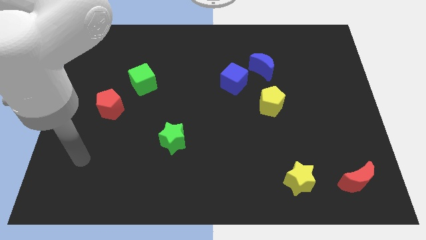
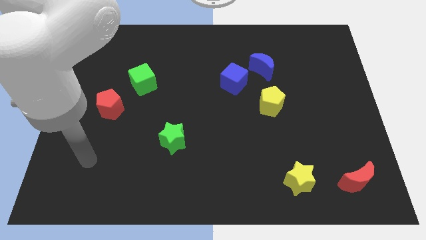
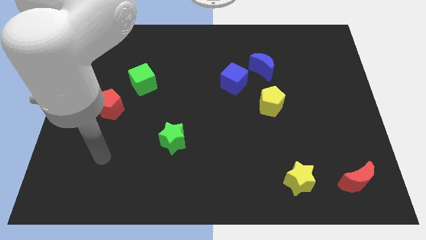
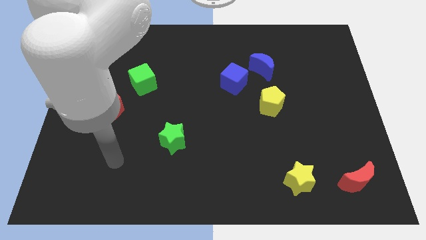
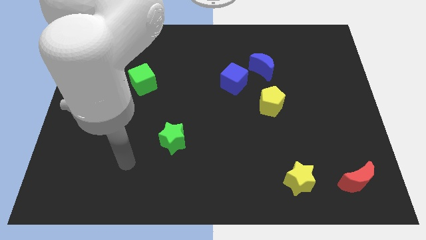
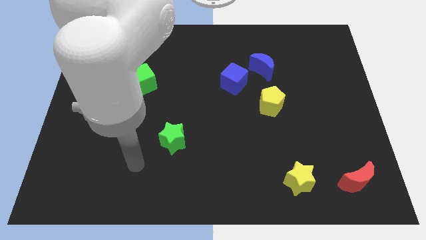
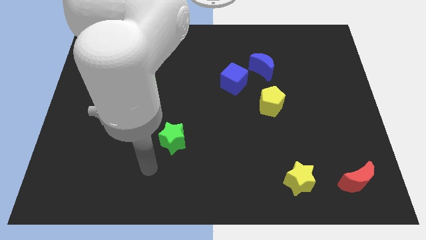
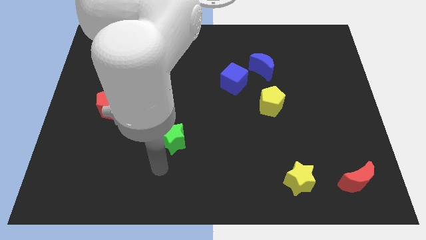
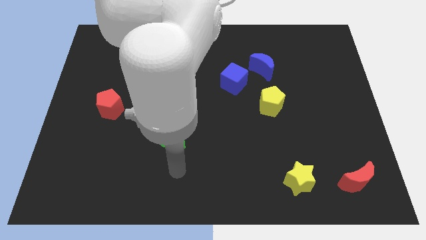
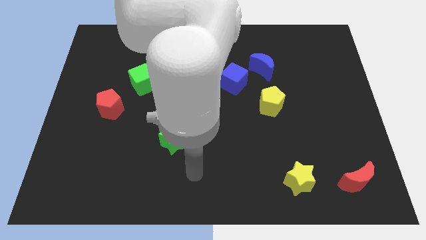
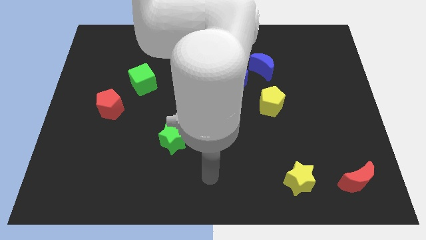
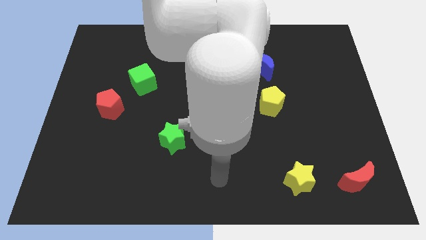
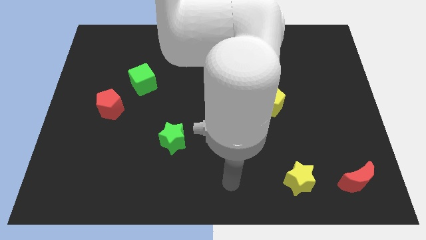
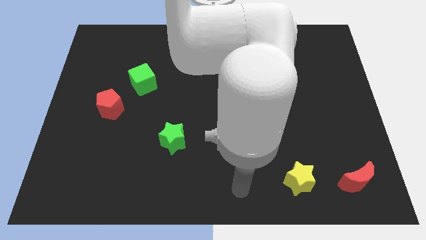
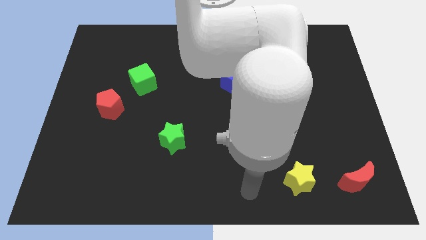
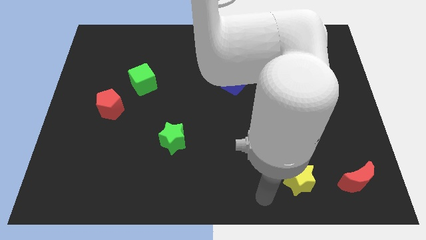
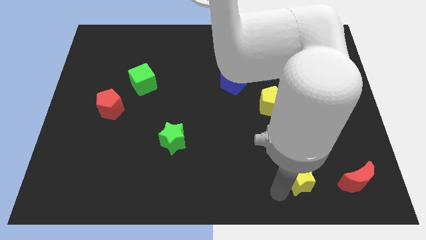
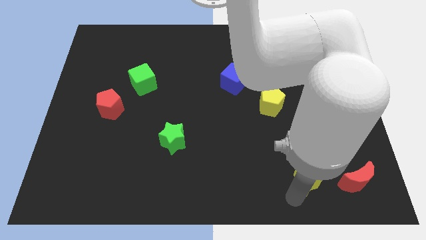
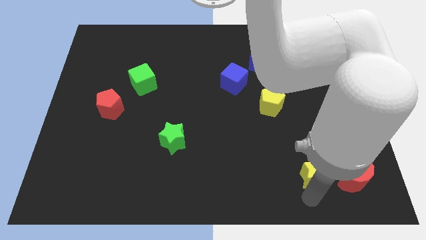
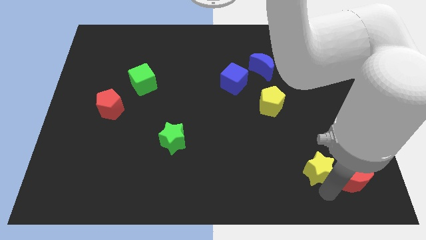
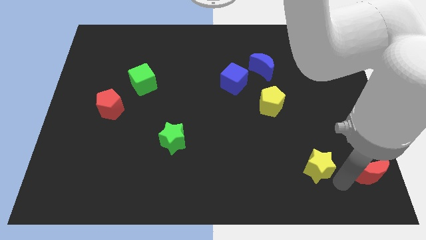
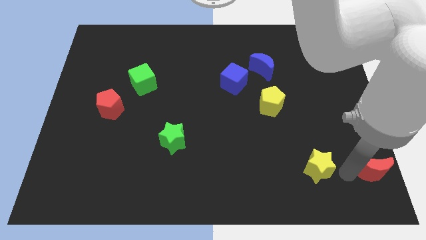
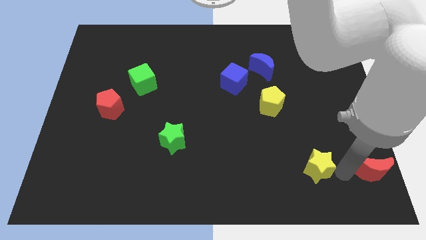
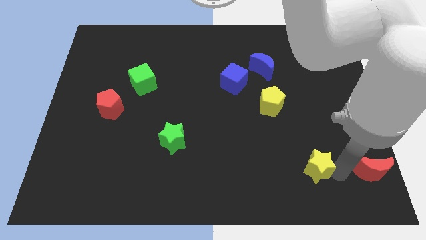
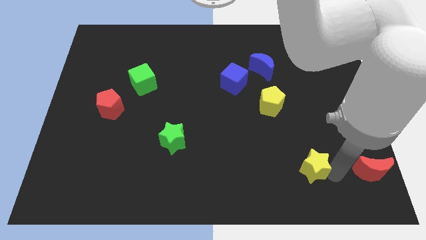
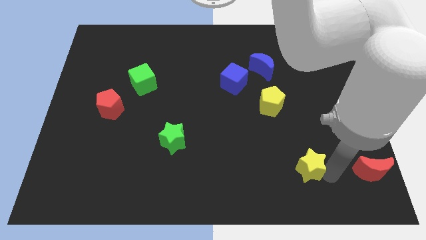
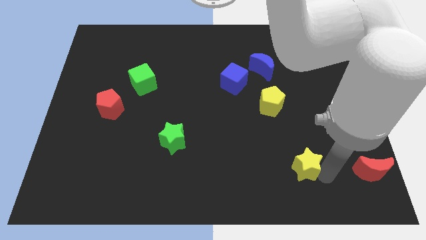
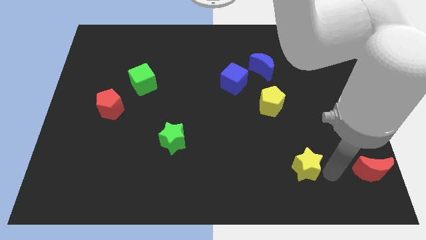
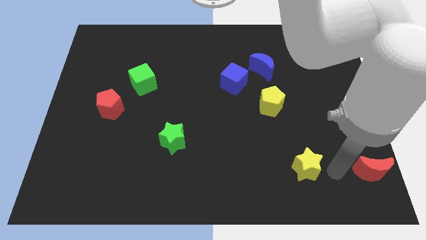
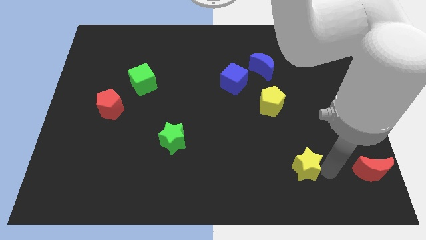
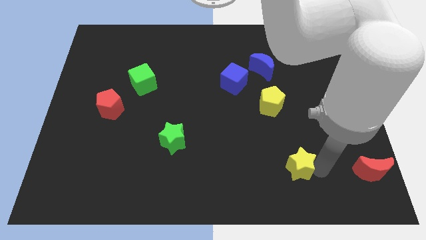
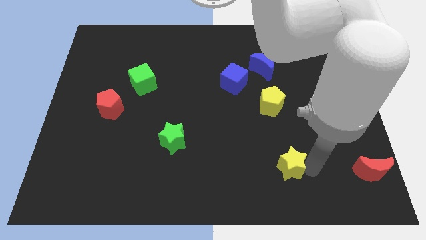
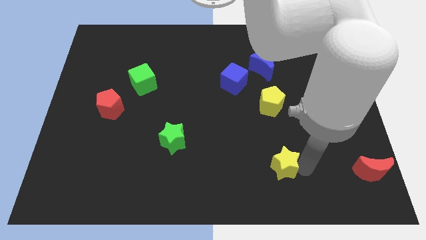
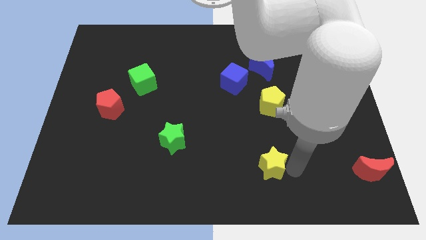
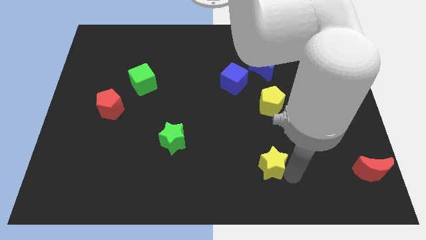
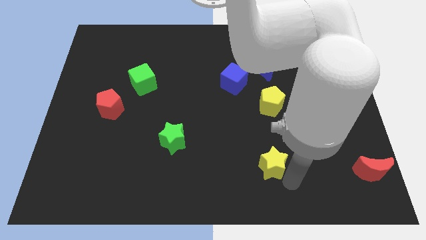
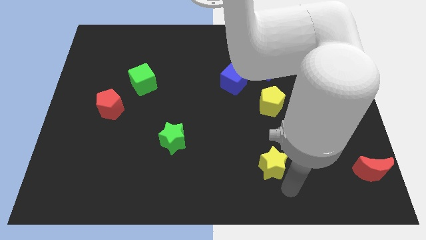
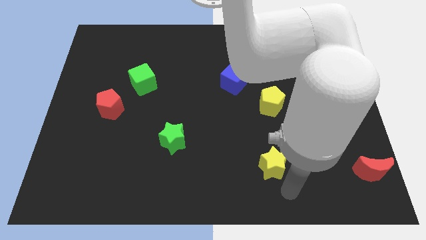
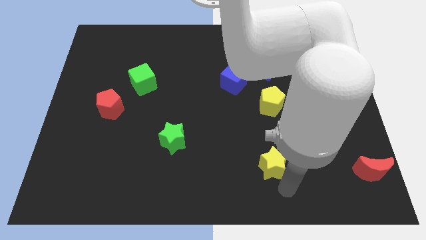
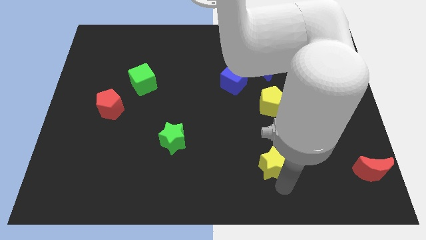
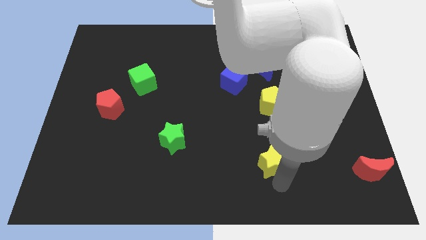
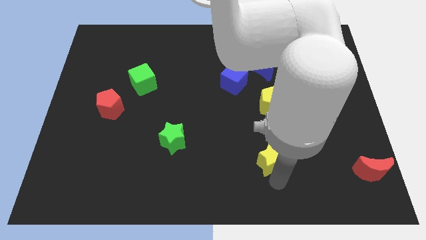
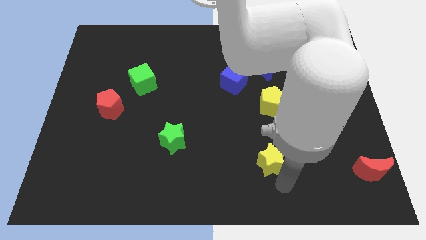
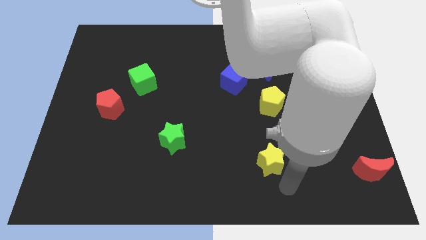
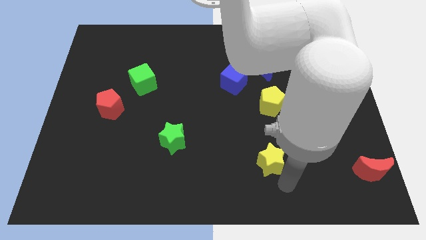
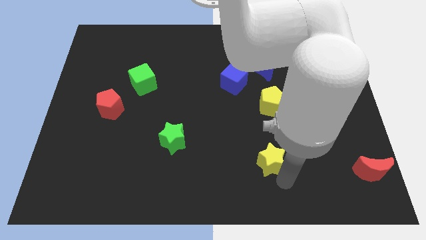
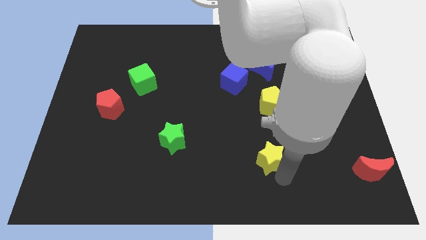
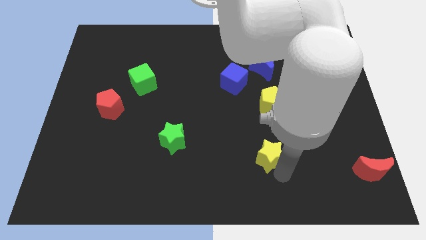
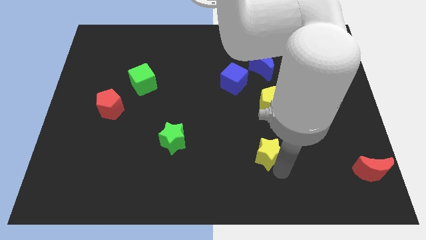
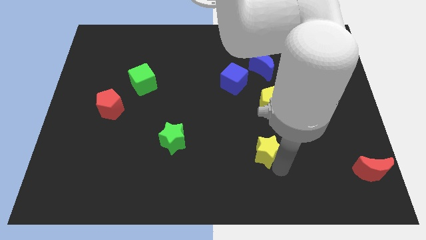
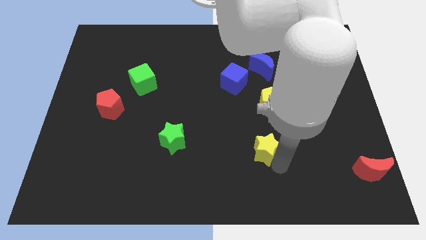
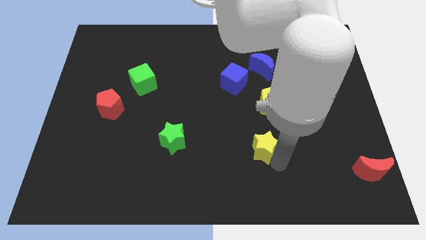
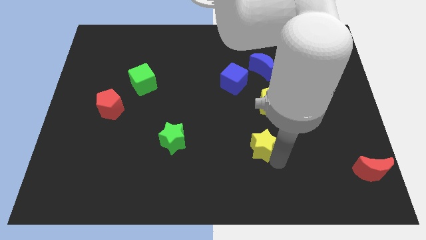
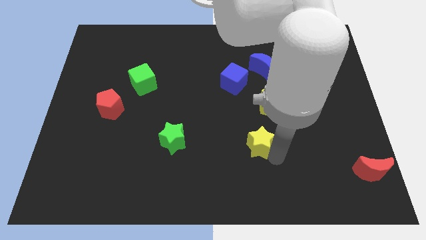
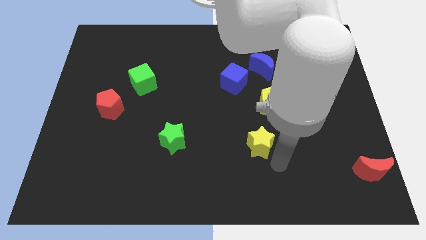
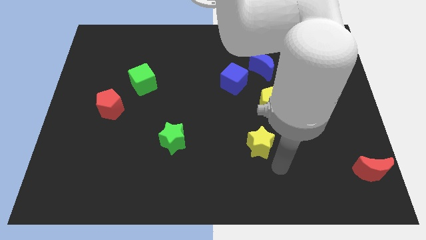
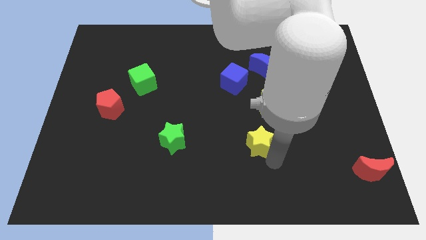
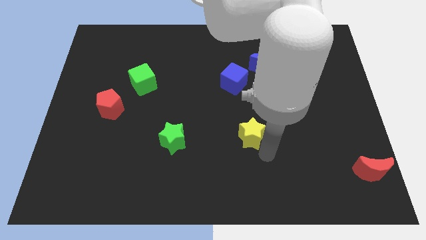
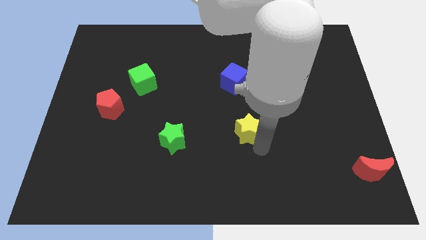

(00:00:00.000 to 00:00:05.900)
slide the yellow star to the middle
